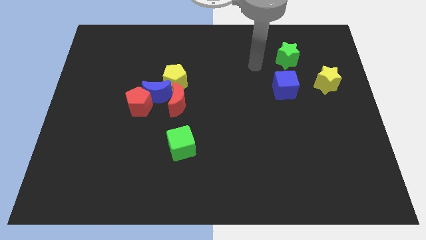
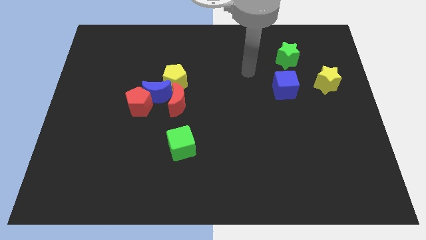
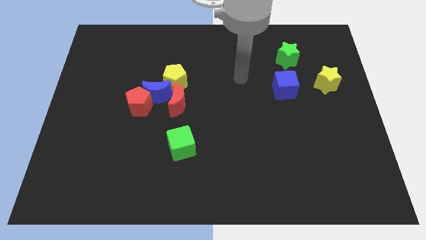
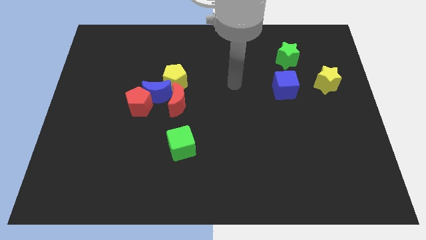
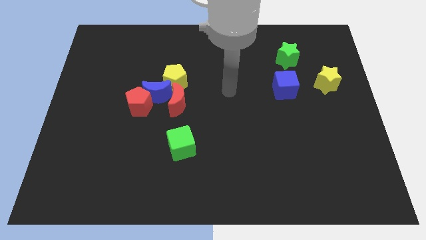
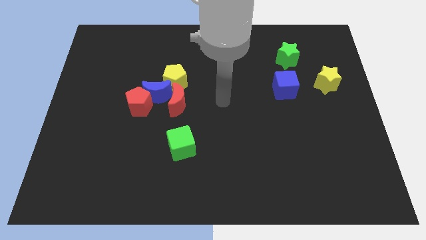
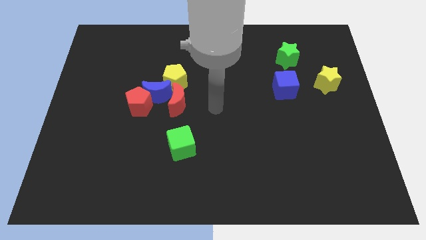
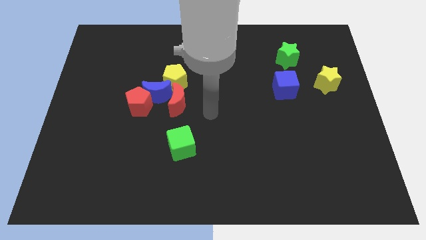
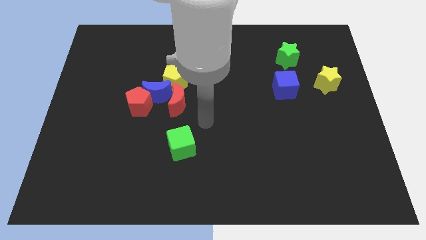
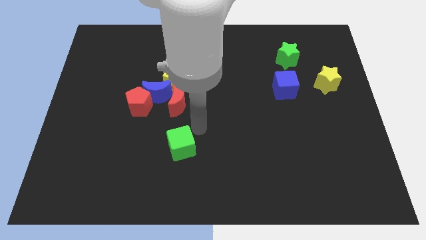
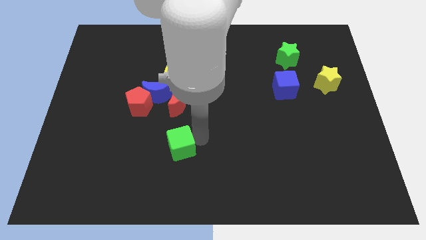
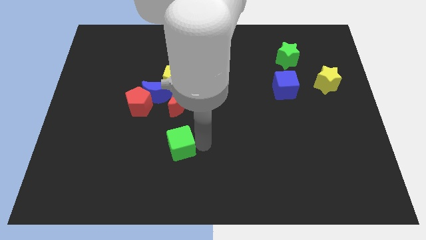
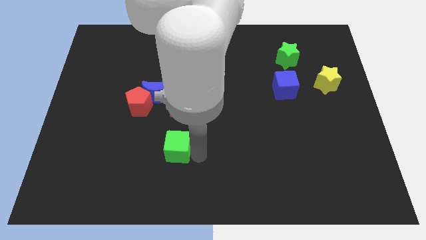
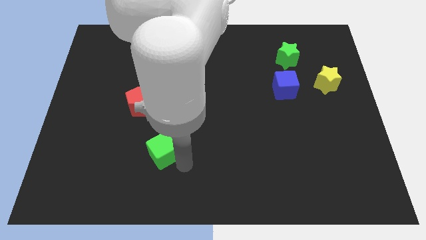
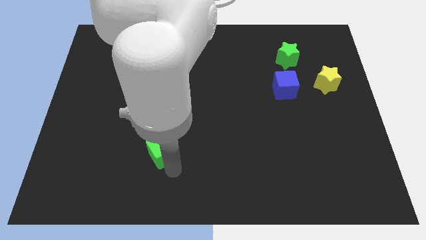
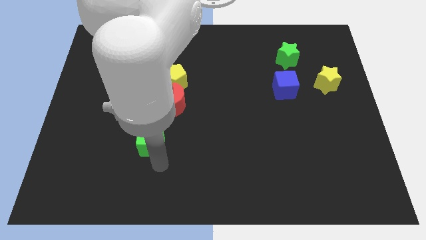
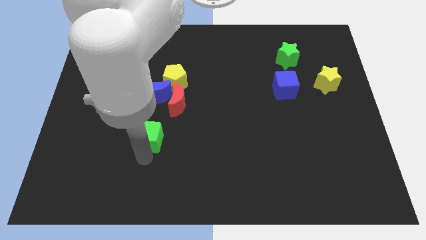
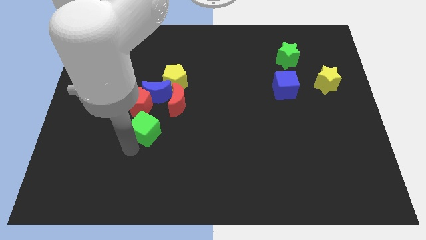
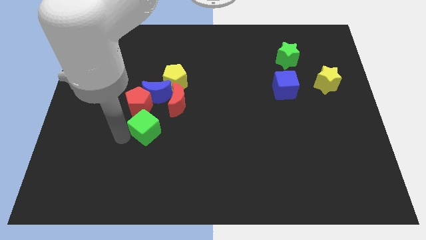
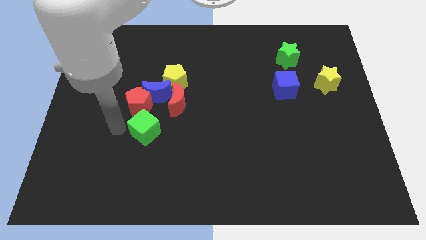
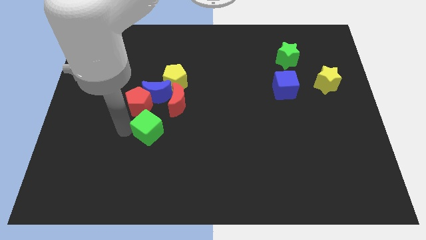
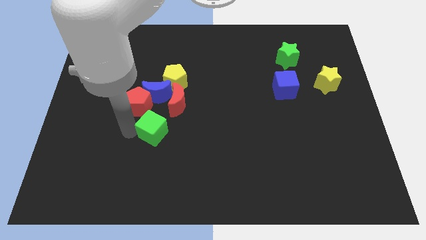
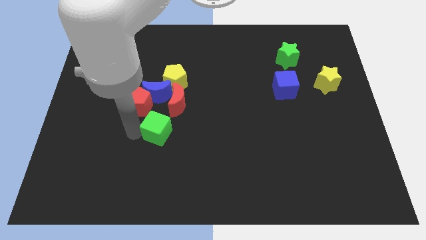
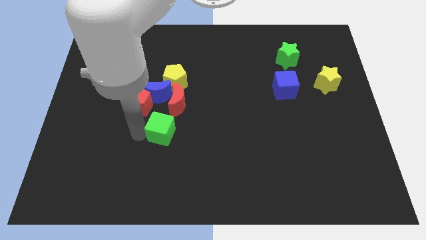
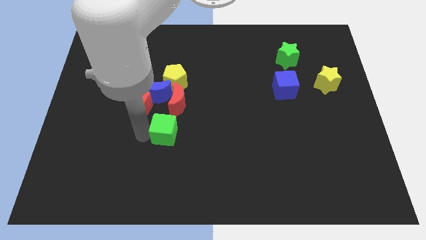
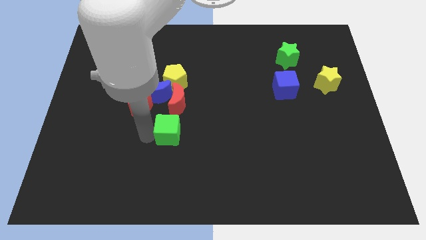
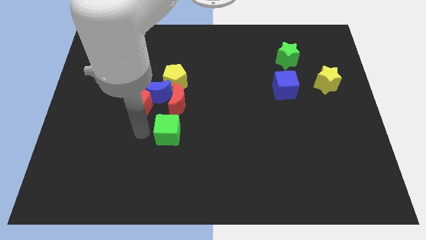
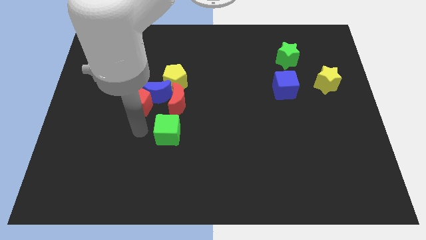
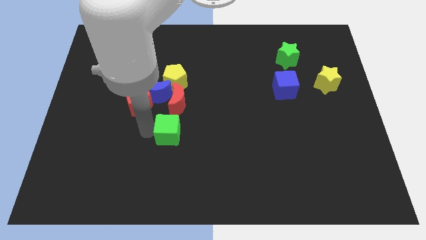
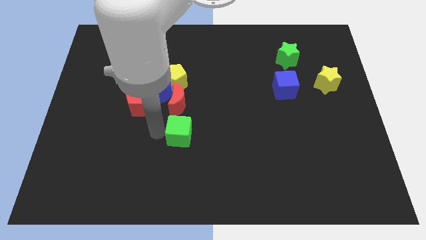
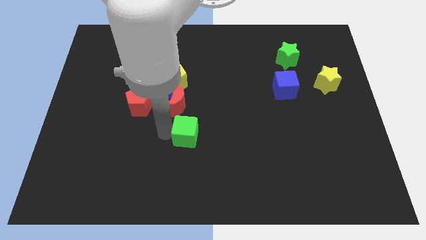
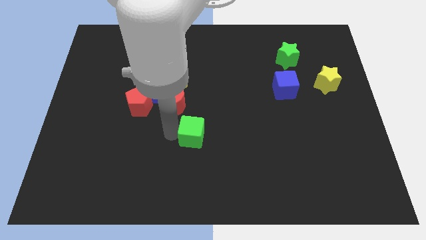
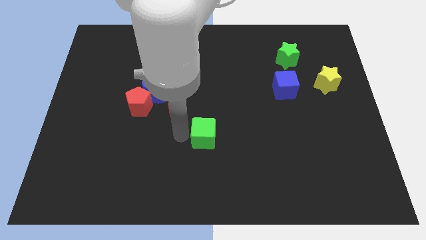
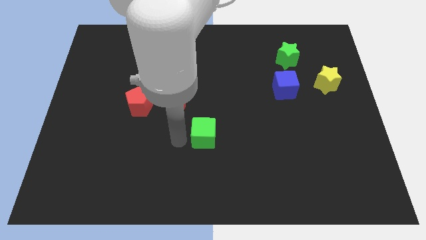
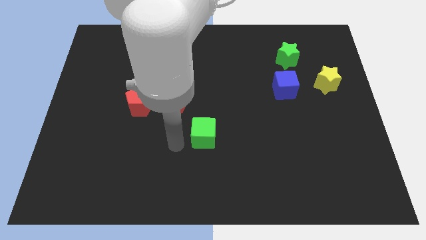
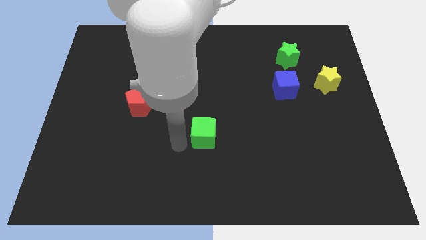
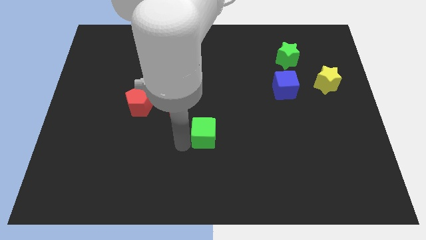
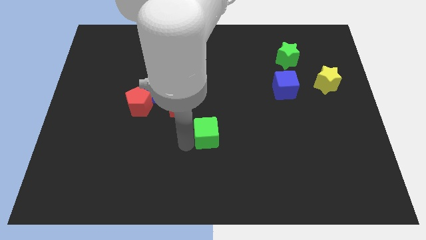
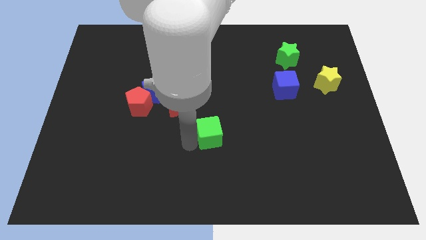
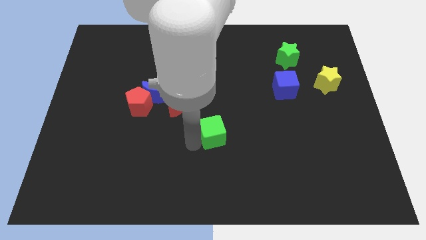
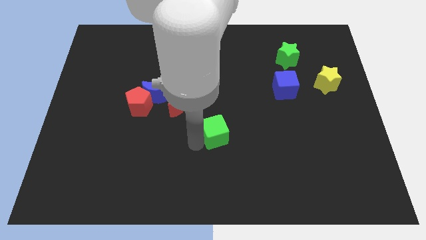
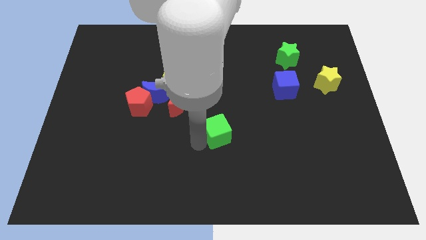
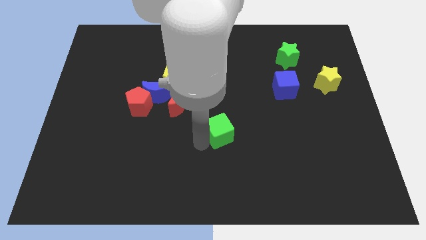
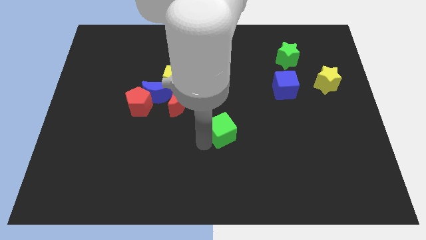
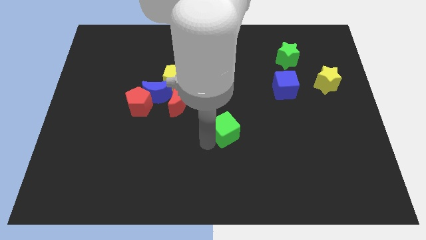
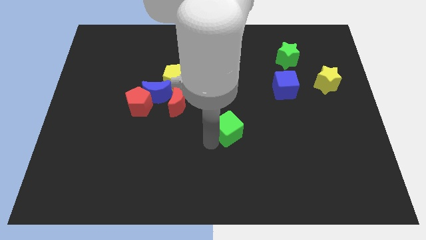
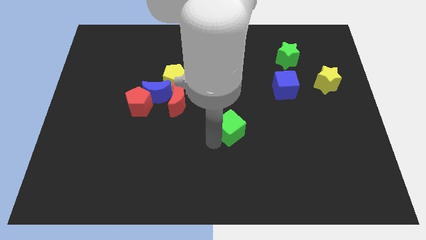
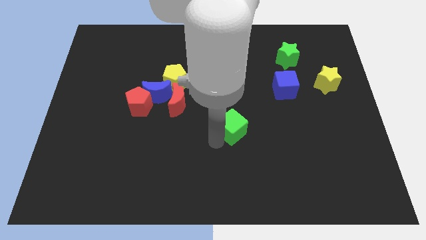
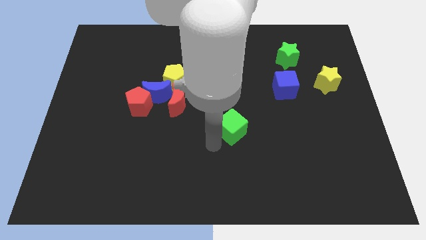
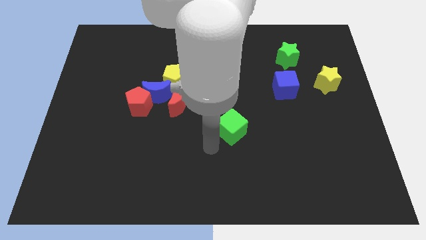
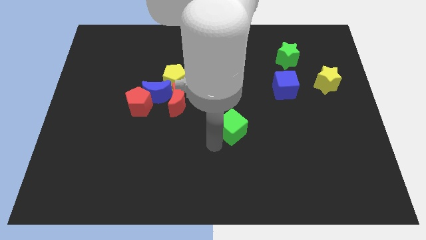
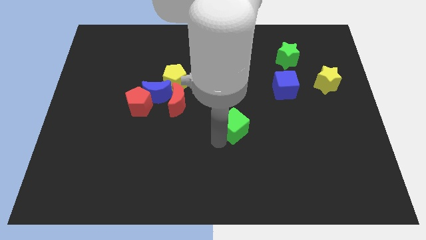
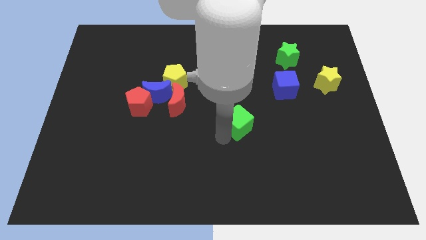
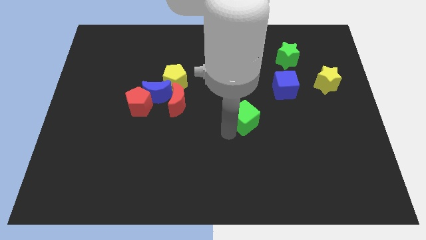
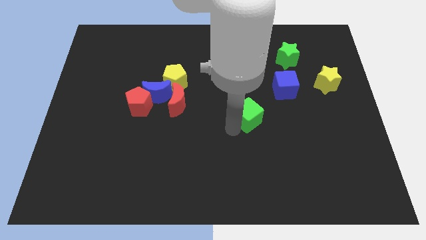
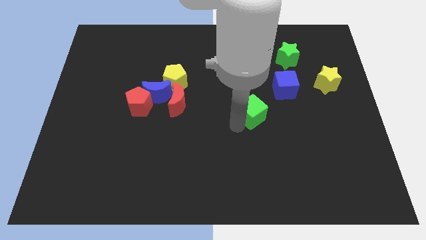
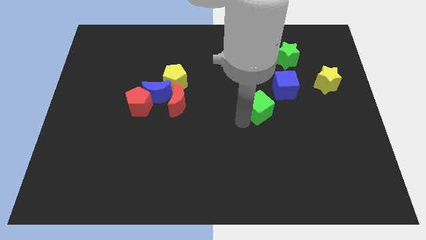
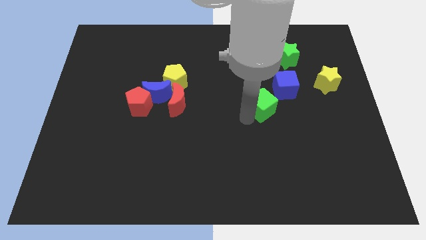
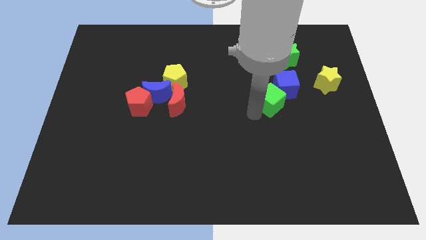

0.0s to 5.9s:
move the green cube next to the blue cube

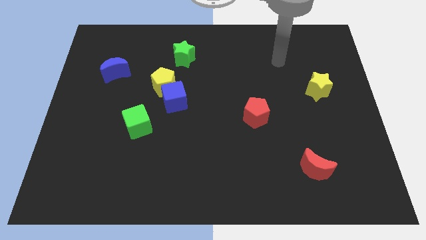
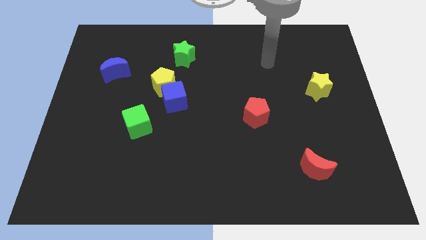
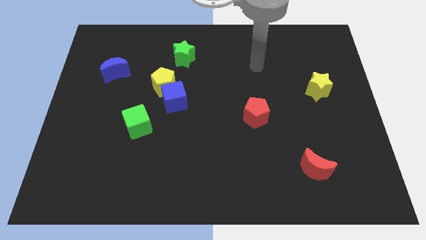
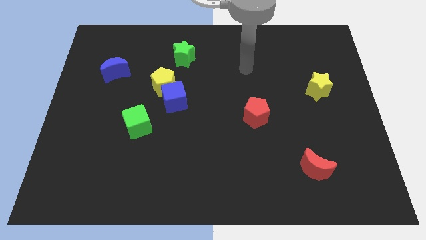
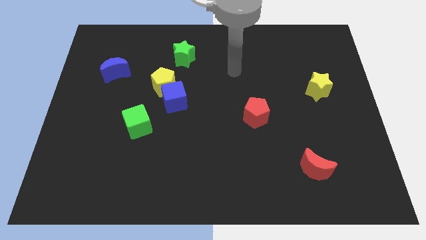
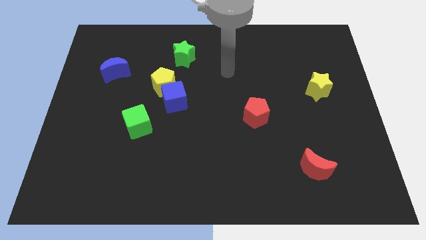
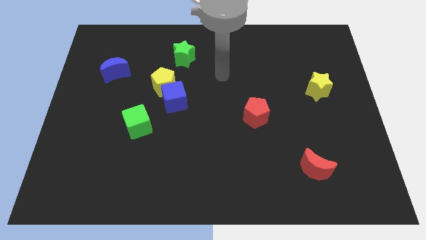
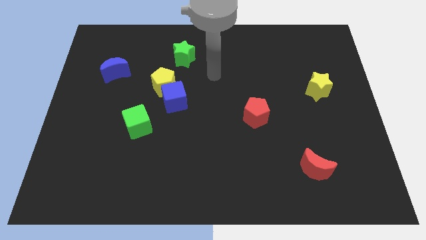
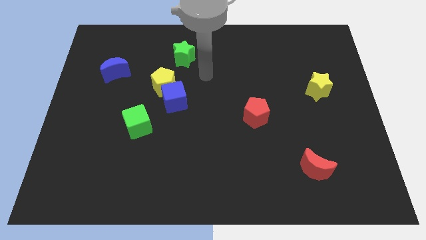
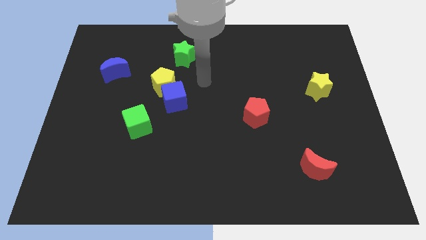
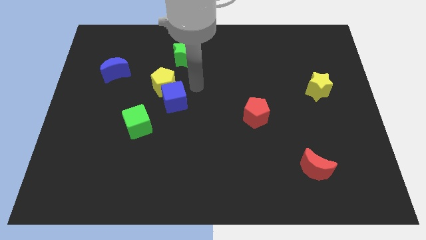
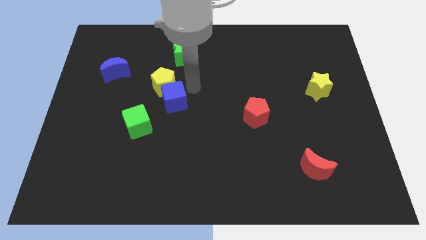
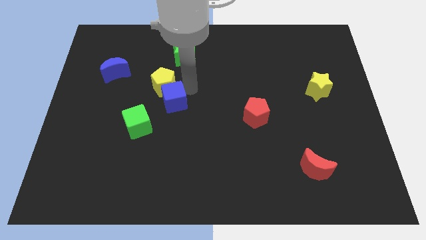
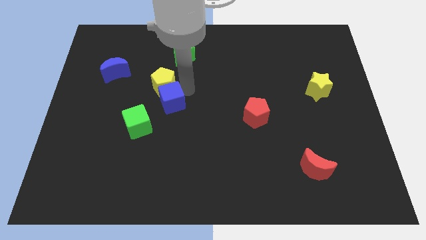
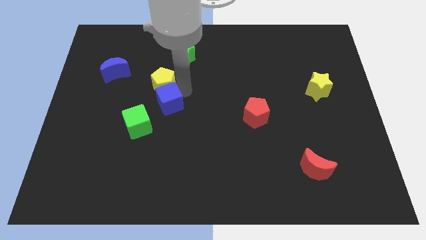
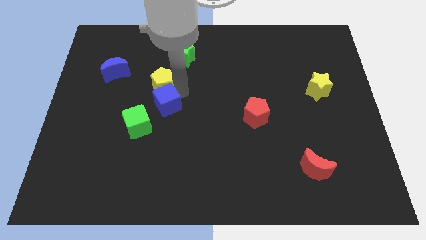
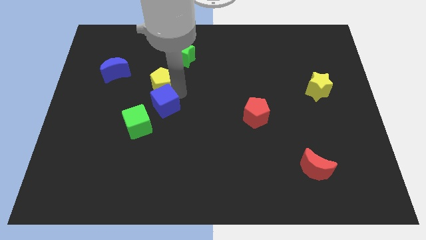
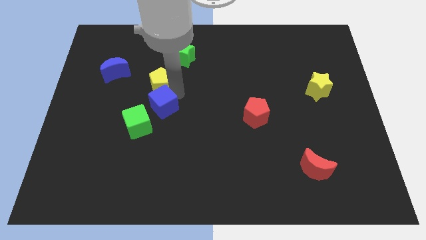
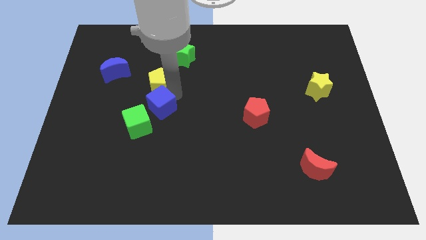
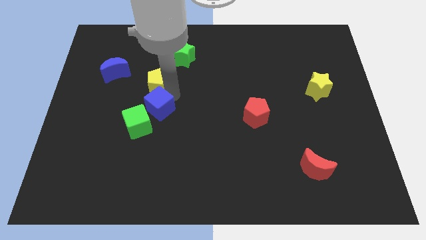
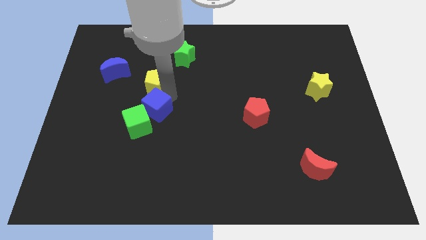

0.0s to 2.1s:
put the blue cube next to the green cube
